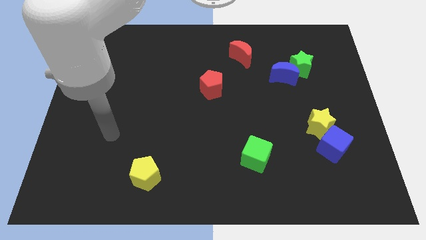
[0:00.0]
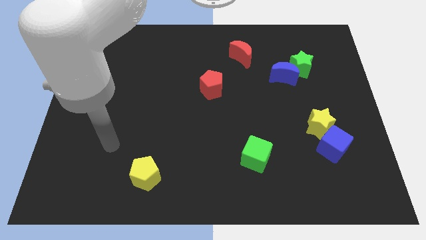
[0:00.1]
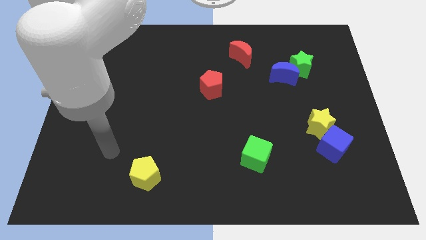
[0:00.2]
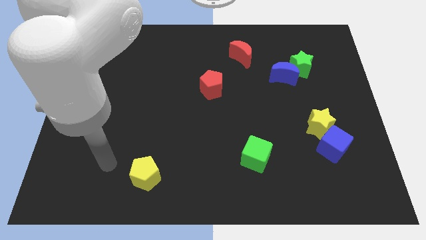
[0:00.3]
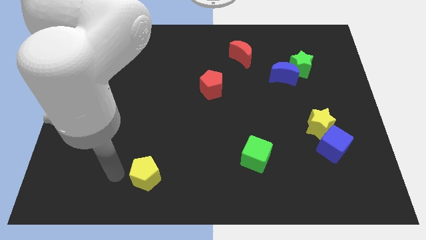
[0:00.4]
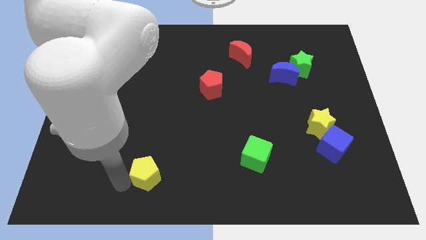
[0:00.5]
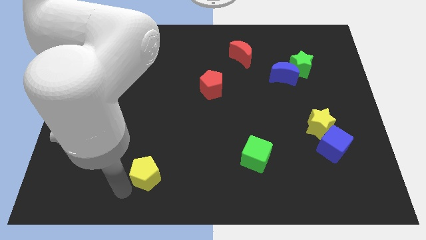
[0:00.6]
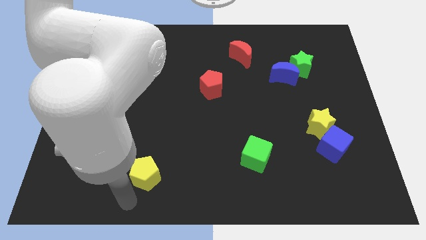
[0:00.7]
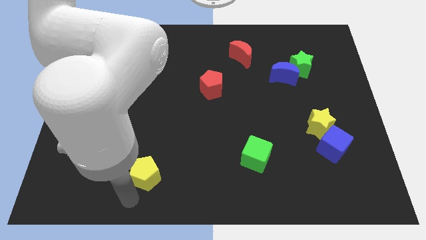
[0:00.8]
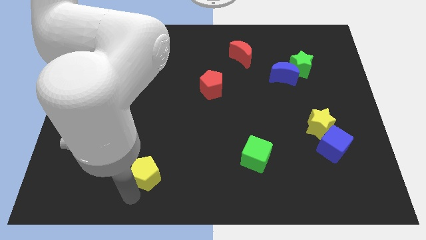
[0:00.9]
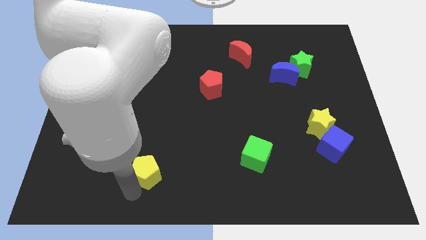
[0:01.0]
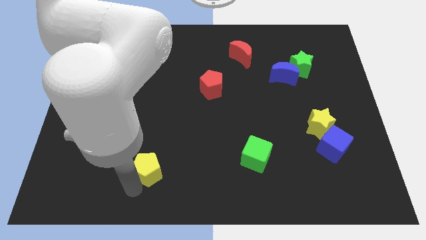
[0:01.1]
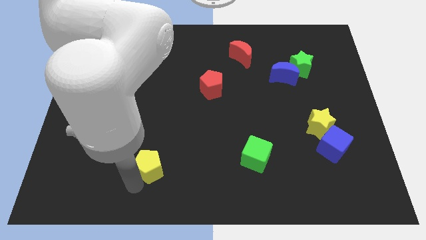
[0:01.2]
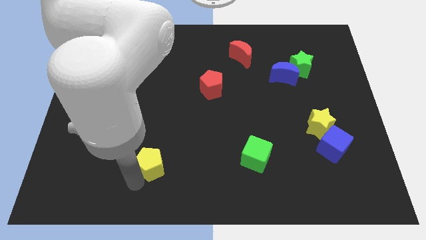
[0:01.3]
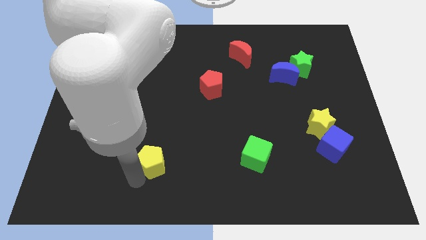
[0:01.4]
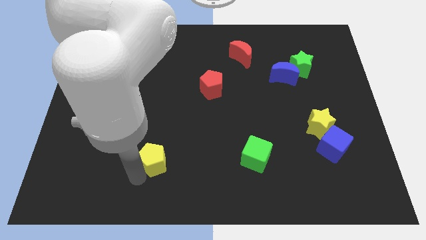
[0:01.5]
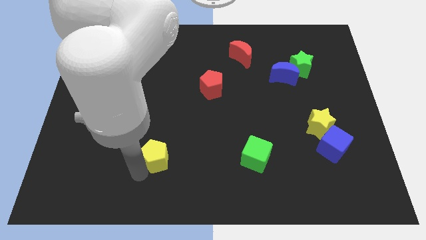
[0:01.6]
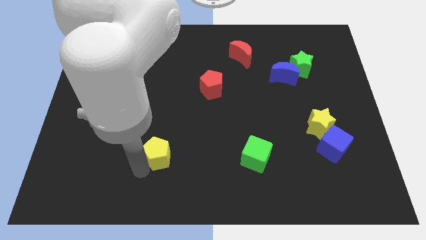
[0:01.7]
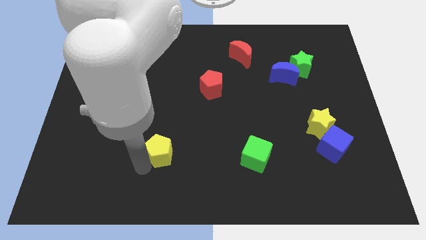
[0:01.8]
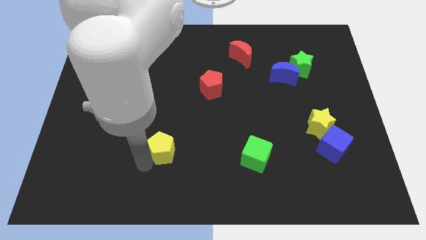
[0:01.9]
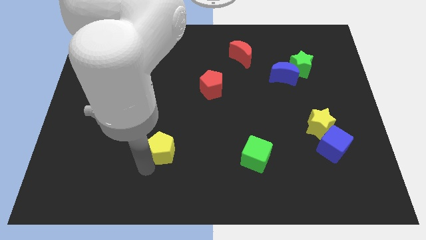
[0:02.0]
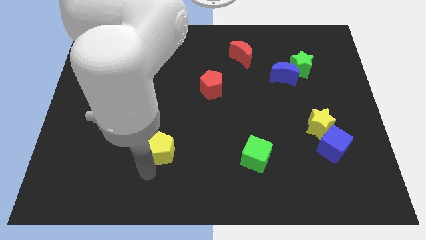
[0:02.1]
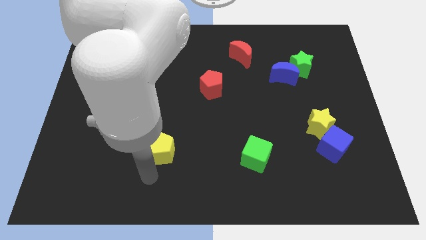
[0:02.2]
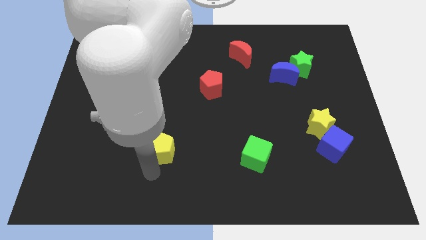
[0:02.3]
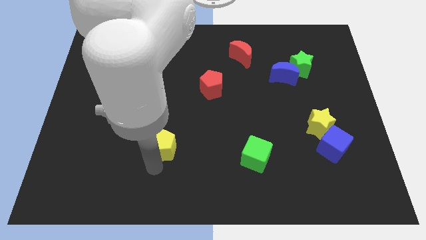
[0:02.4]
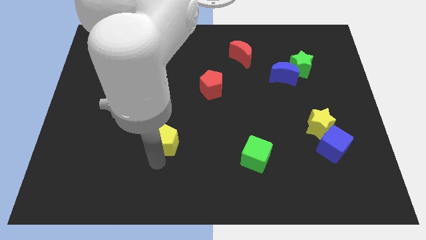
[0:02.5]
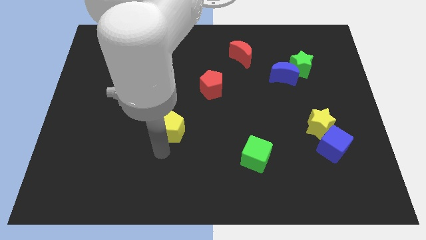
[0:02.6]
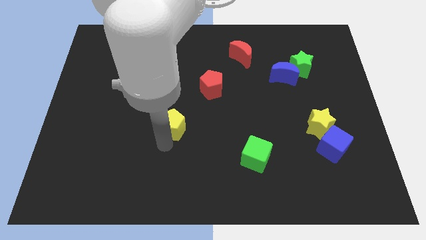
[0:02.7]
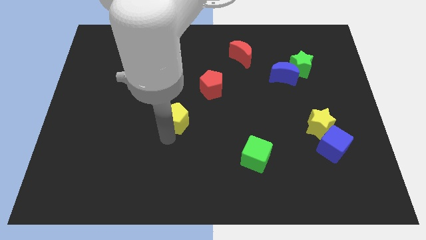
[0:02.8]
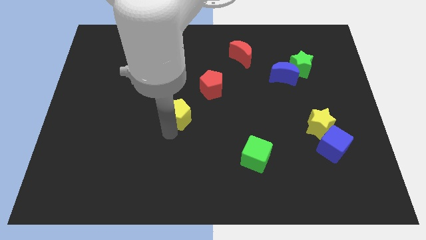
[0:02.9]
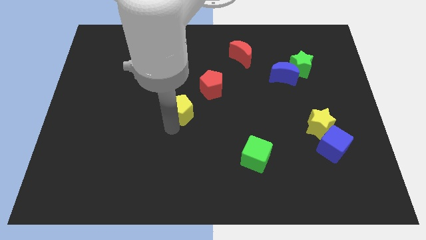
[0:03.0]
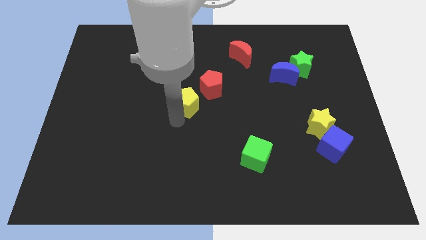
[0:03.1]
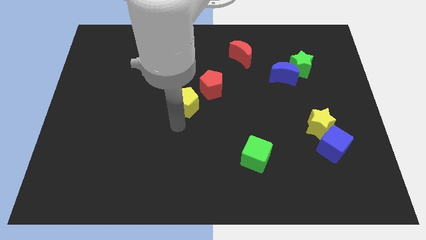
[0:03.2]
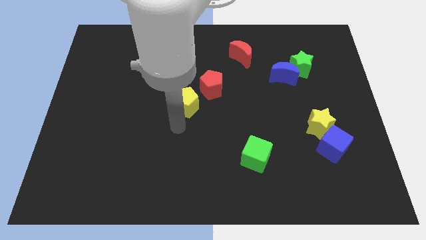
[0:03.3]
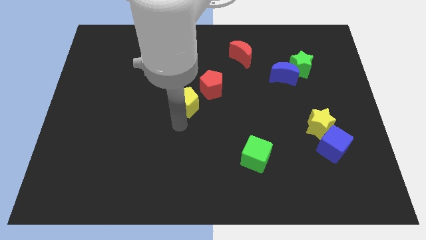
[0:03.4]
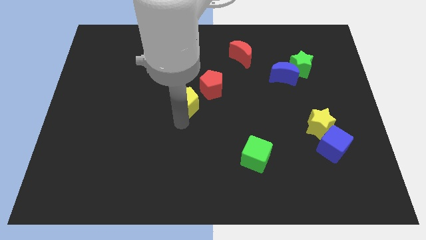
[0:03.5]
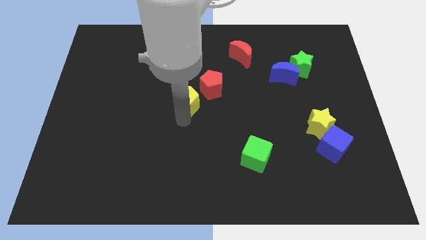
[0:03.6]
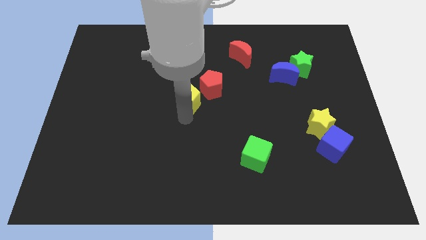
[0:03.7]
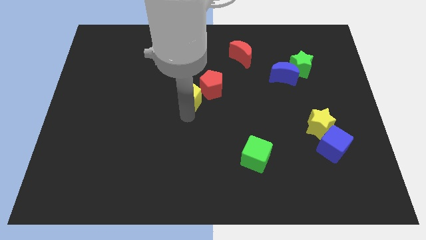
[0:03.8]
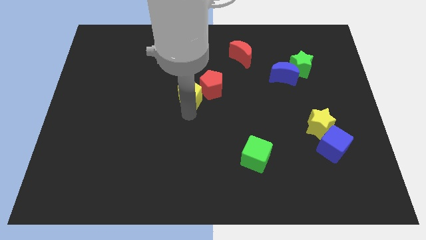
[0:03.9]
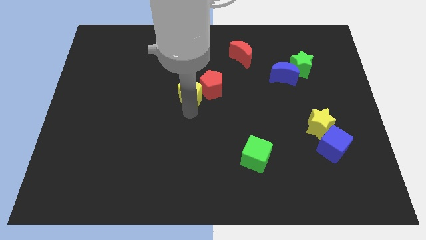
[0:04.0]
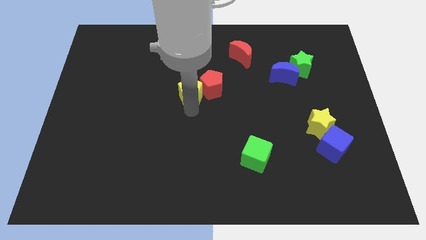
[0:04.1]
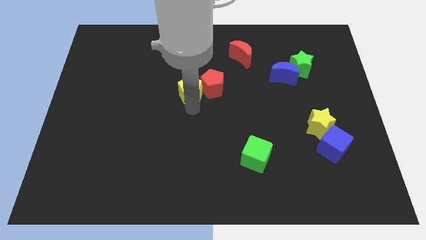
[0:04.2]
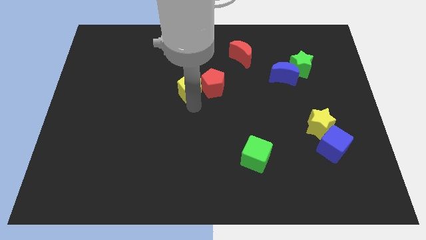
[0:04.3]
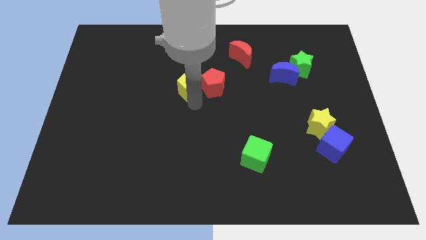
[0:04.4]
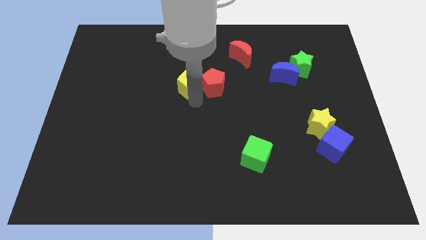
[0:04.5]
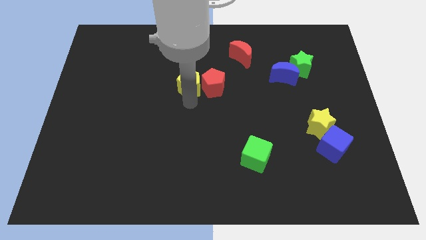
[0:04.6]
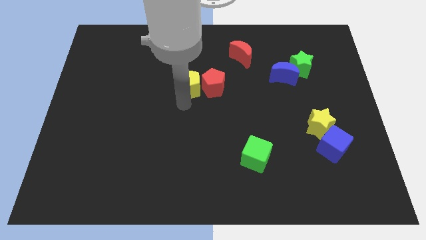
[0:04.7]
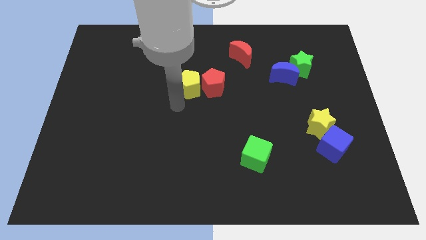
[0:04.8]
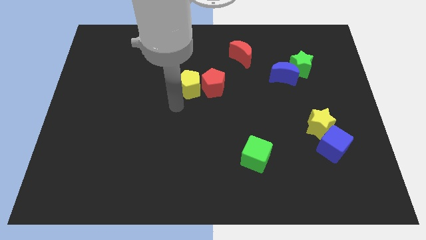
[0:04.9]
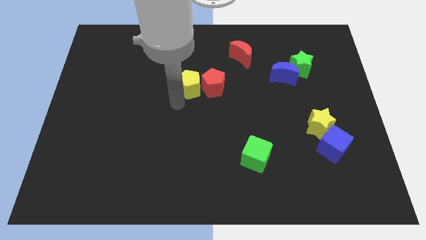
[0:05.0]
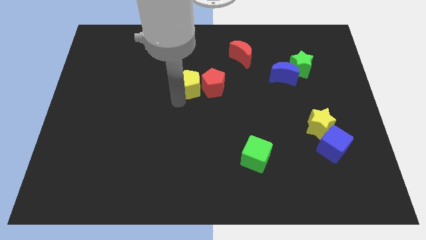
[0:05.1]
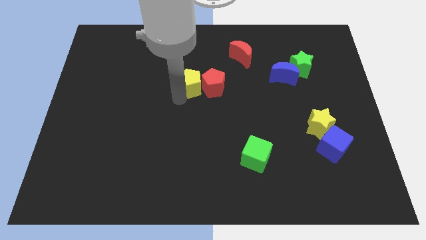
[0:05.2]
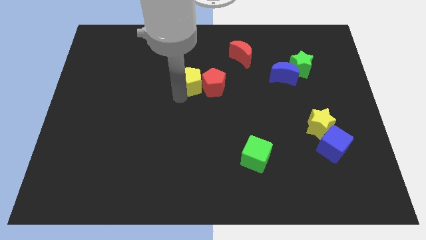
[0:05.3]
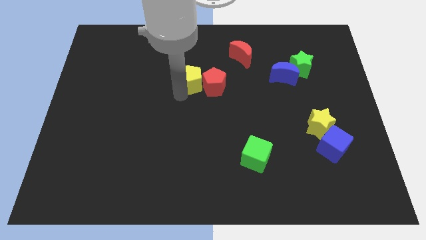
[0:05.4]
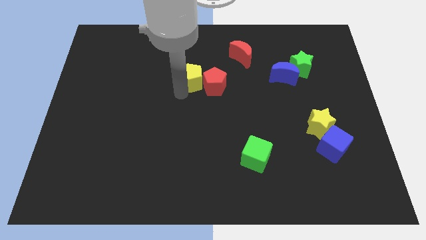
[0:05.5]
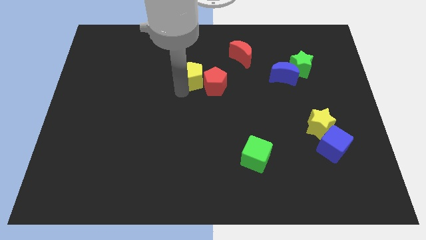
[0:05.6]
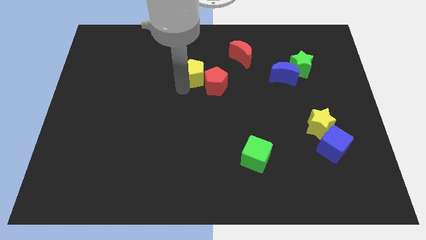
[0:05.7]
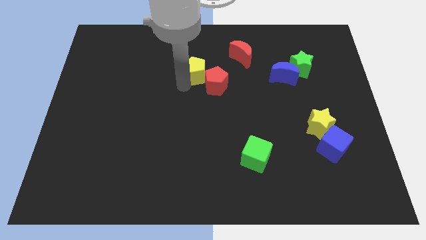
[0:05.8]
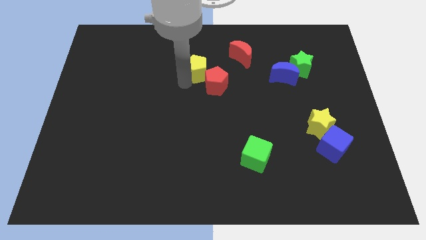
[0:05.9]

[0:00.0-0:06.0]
push the yellow pentagon to the top side of the red pentagon
